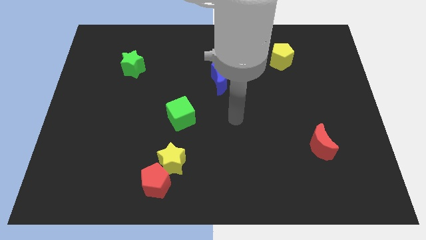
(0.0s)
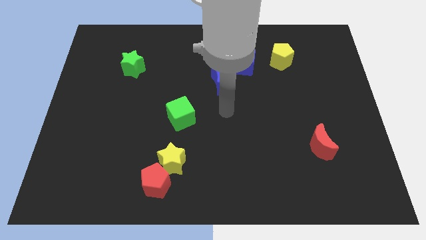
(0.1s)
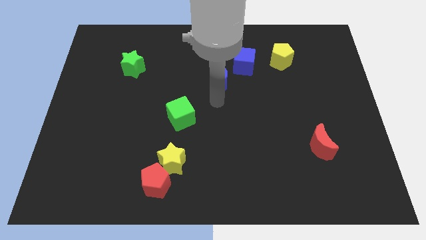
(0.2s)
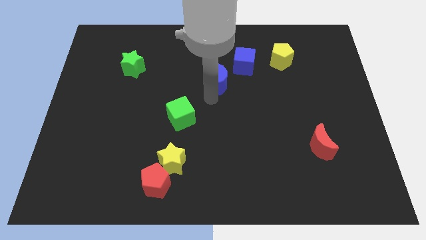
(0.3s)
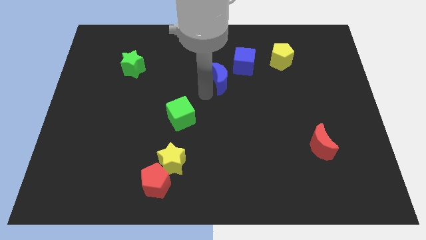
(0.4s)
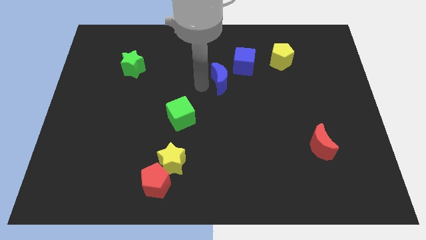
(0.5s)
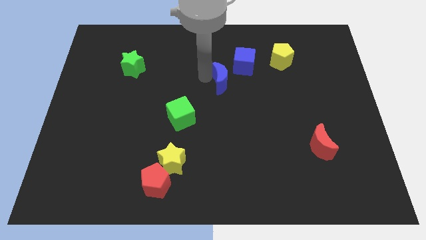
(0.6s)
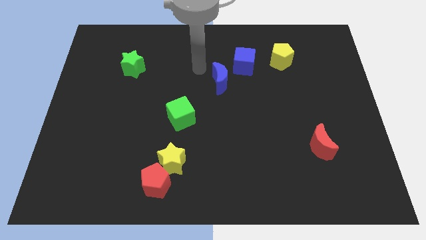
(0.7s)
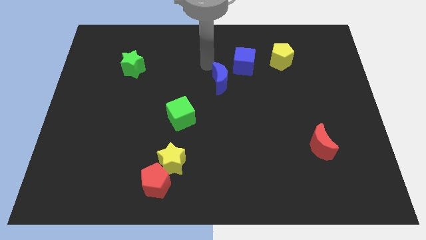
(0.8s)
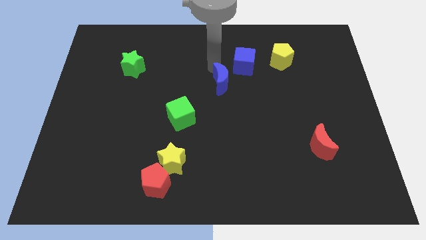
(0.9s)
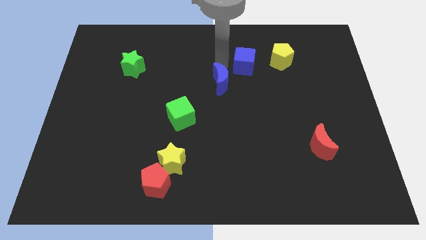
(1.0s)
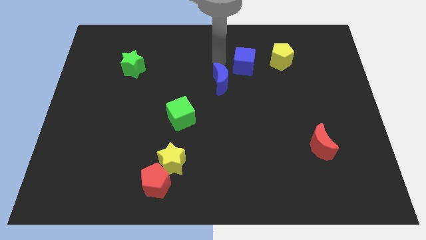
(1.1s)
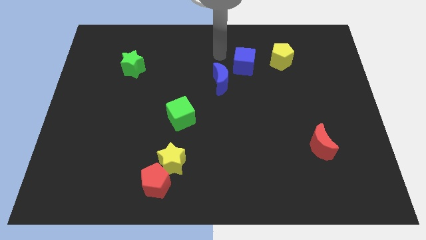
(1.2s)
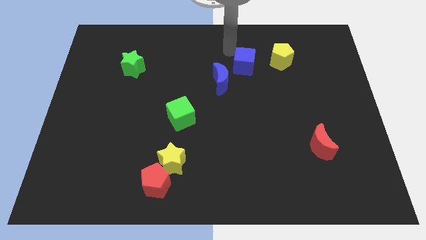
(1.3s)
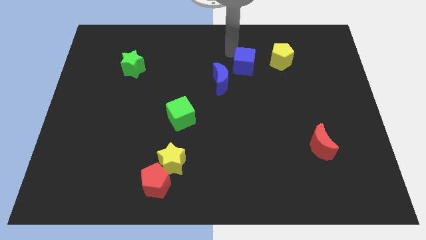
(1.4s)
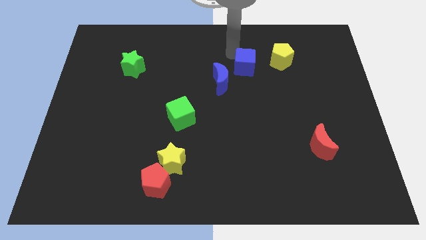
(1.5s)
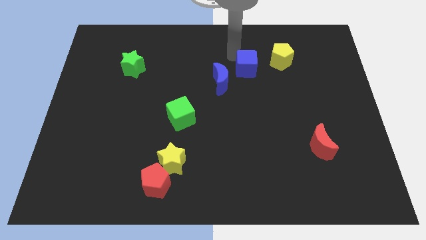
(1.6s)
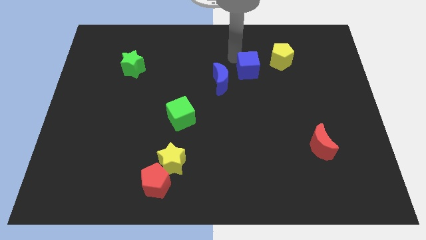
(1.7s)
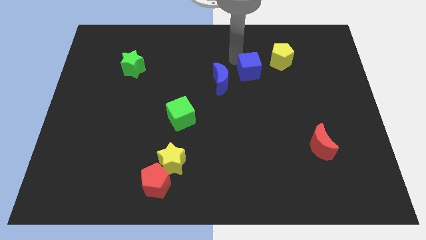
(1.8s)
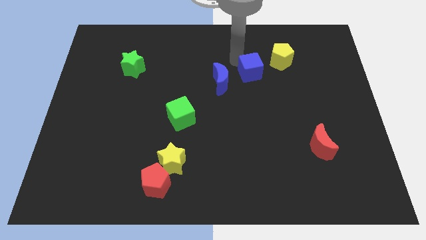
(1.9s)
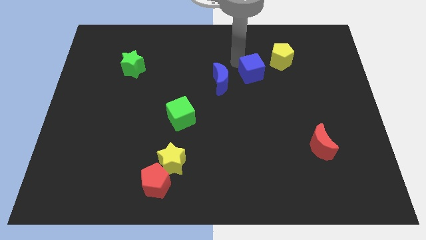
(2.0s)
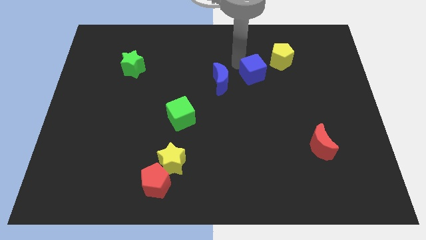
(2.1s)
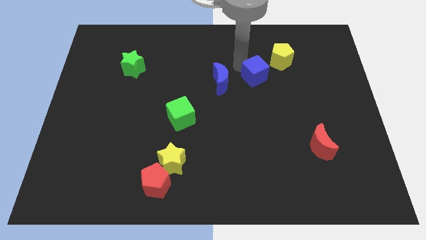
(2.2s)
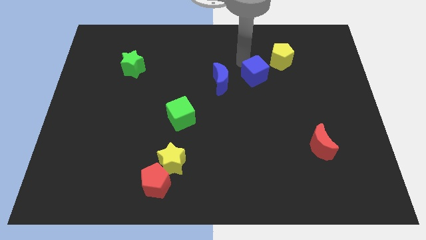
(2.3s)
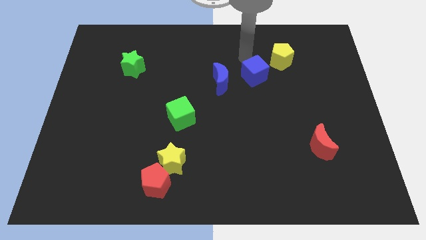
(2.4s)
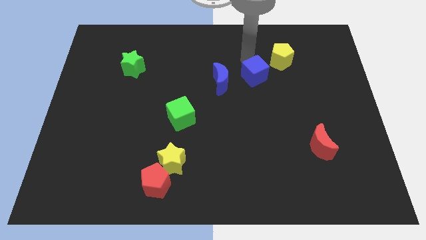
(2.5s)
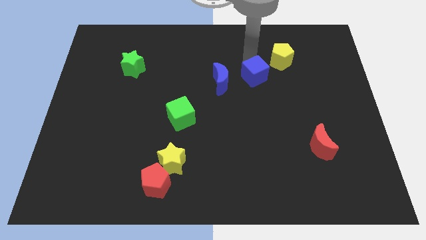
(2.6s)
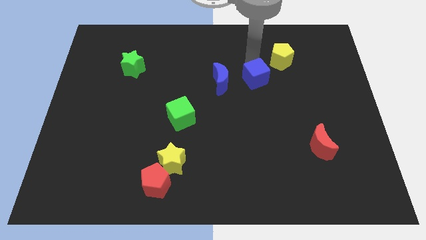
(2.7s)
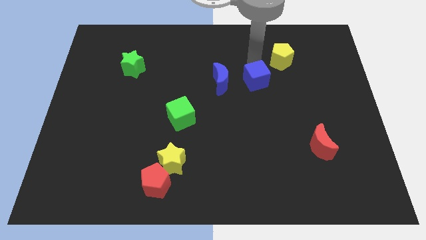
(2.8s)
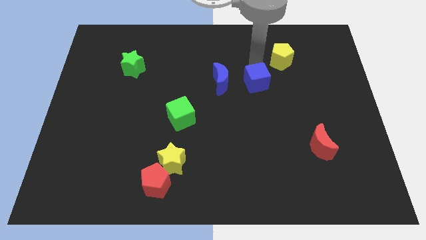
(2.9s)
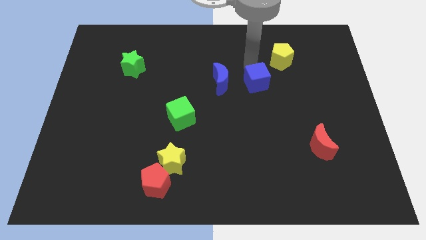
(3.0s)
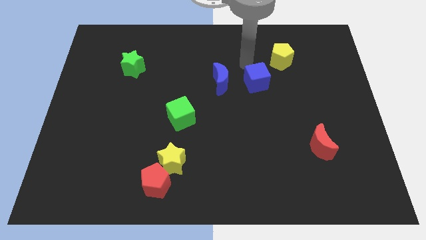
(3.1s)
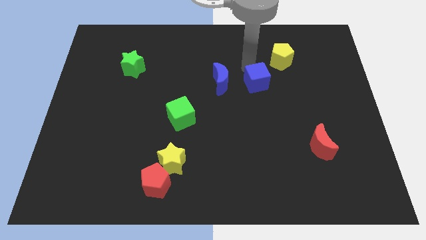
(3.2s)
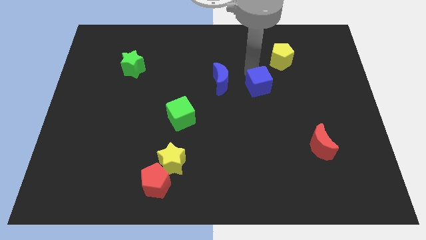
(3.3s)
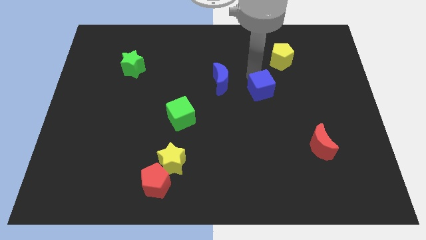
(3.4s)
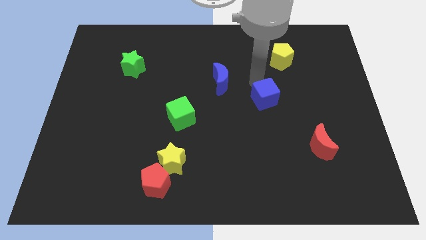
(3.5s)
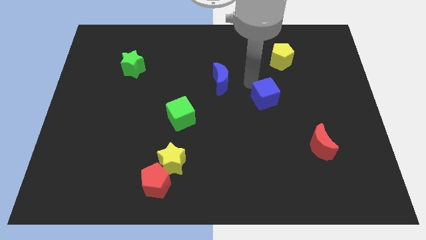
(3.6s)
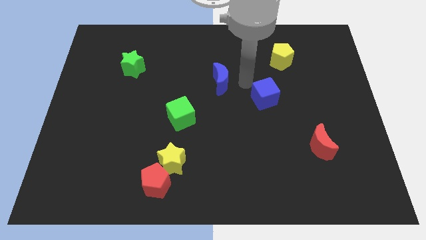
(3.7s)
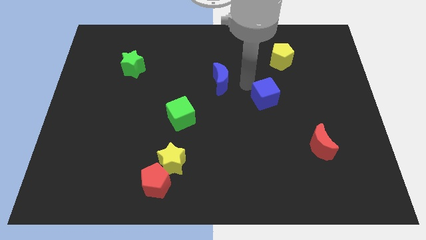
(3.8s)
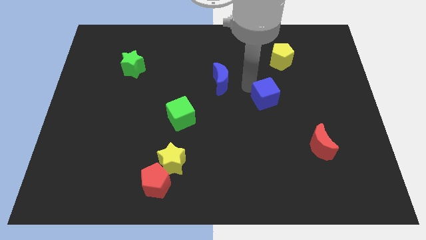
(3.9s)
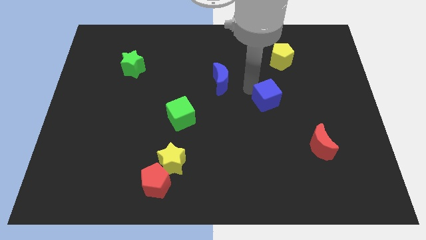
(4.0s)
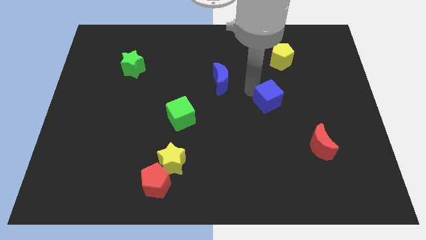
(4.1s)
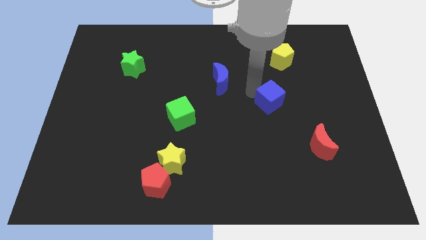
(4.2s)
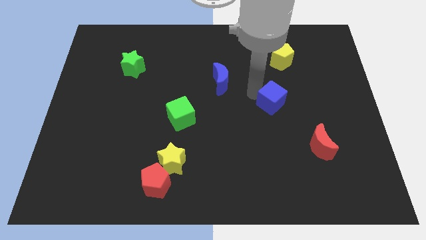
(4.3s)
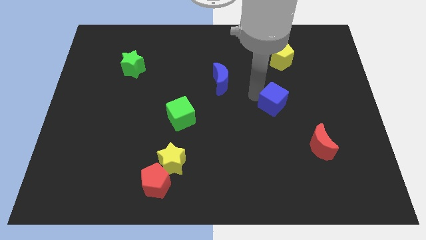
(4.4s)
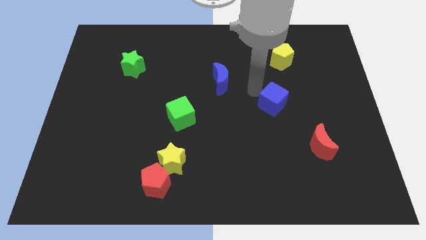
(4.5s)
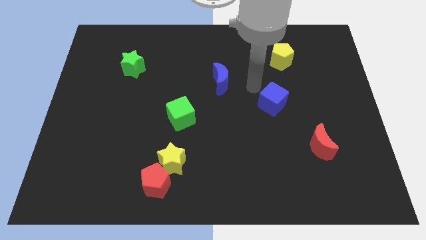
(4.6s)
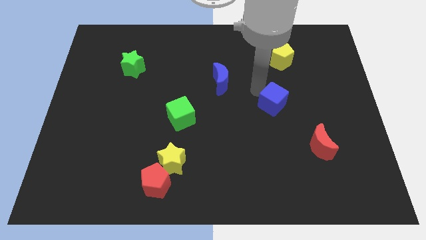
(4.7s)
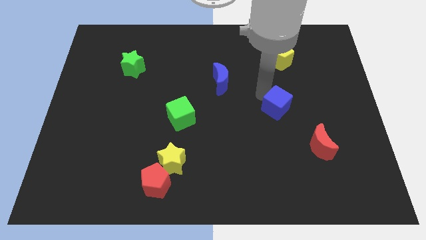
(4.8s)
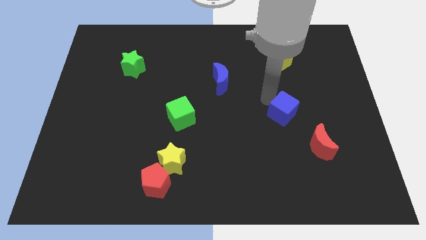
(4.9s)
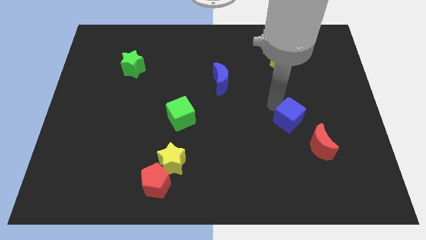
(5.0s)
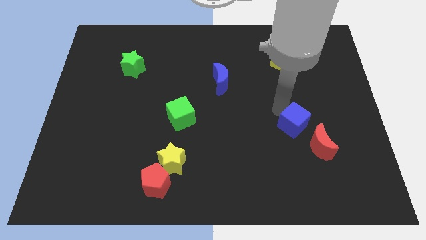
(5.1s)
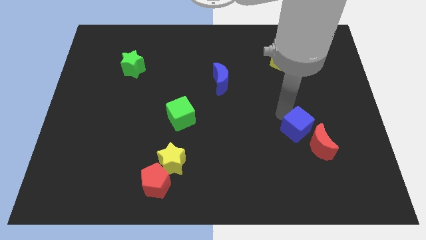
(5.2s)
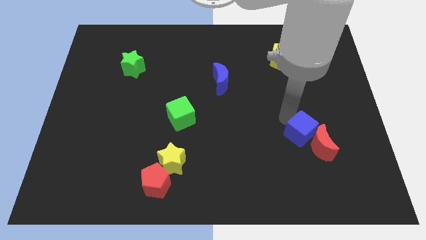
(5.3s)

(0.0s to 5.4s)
push the blue cube next to the red moon

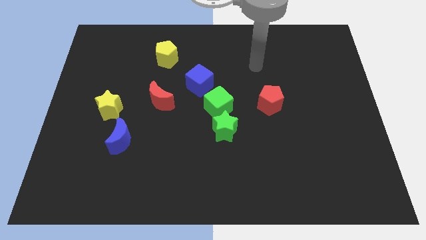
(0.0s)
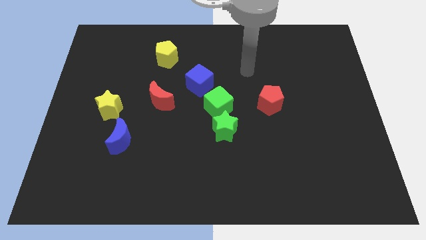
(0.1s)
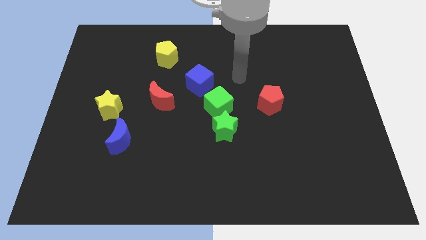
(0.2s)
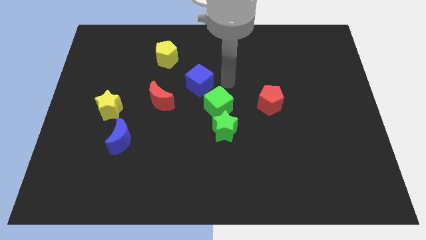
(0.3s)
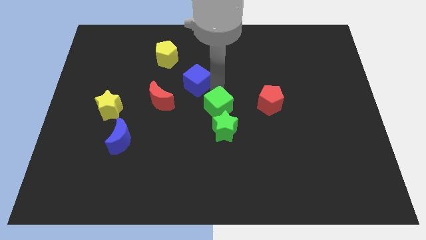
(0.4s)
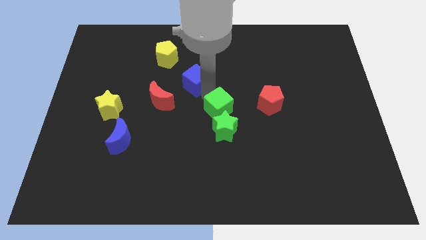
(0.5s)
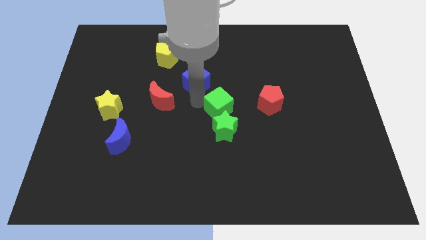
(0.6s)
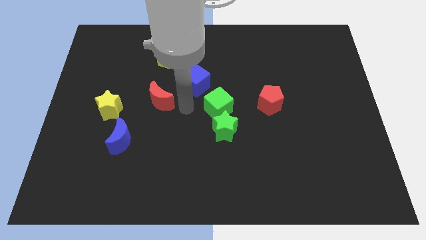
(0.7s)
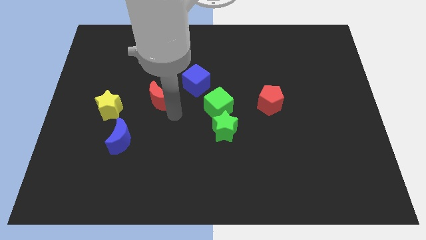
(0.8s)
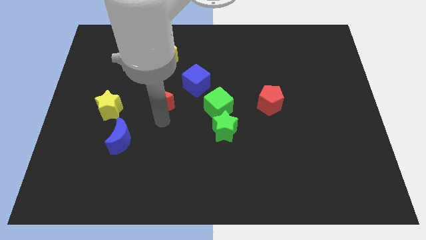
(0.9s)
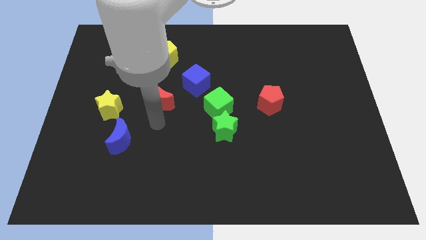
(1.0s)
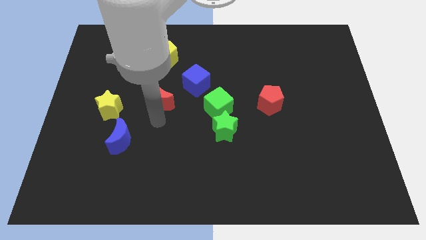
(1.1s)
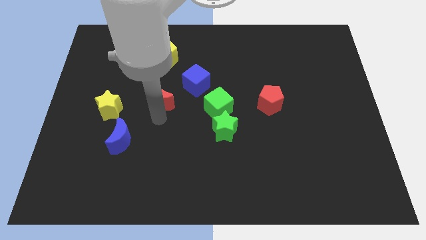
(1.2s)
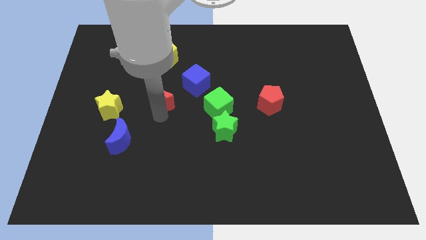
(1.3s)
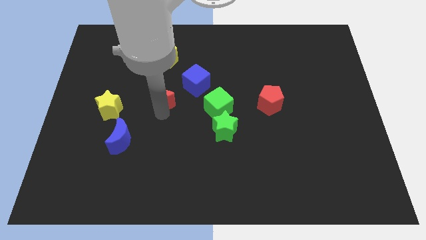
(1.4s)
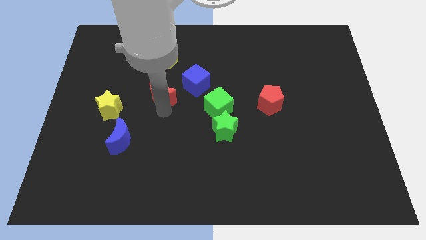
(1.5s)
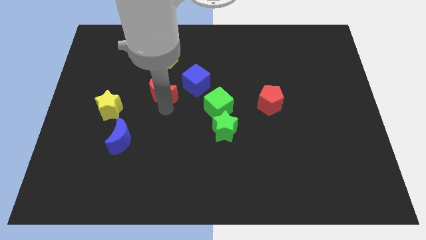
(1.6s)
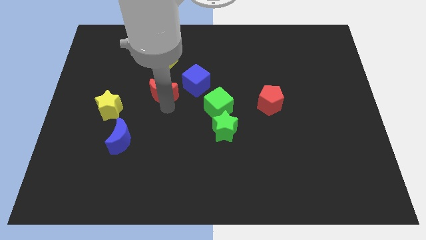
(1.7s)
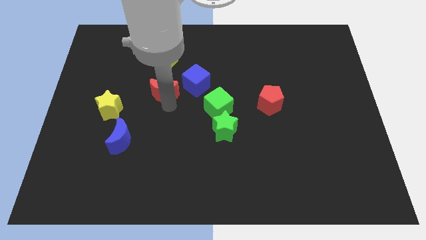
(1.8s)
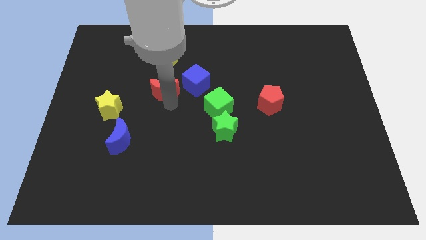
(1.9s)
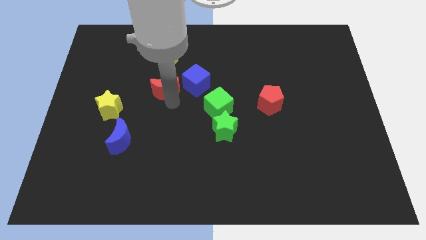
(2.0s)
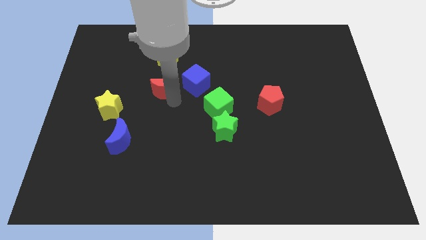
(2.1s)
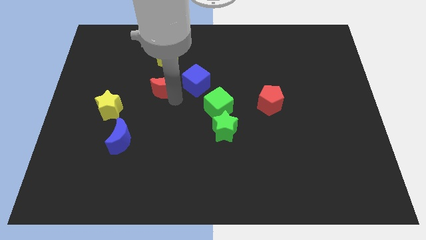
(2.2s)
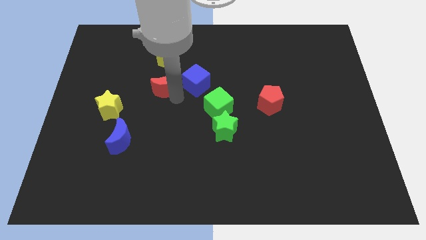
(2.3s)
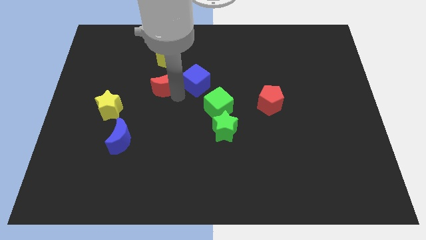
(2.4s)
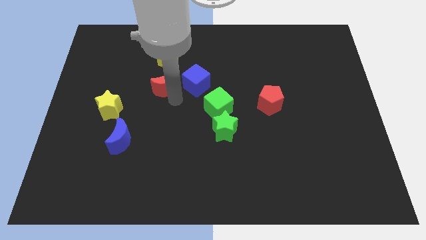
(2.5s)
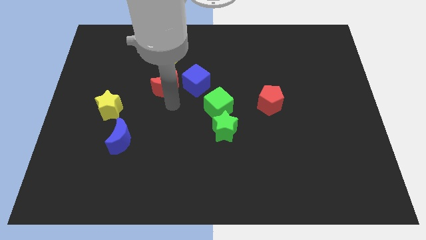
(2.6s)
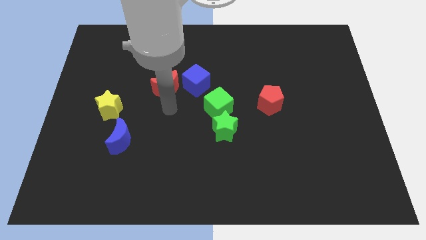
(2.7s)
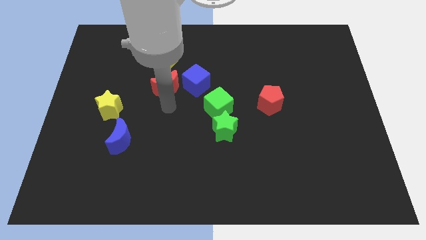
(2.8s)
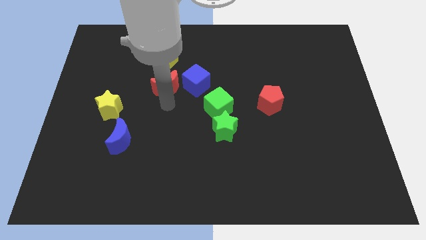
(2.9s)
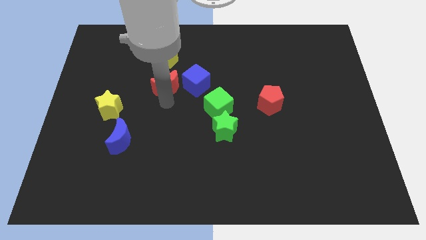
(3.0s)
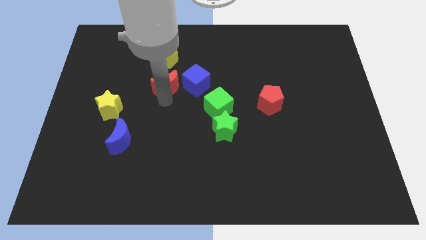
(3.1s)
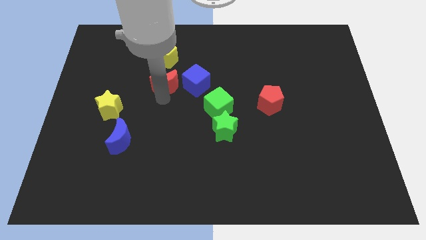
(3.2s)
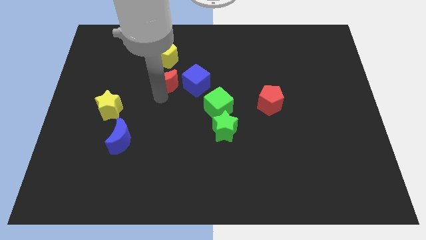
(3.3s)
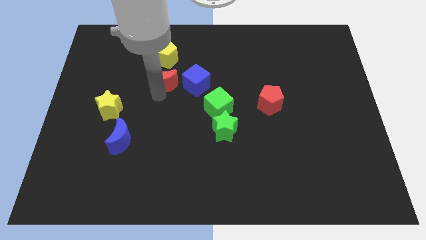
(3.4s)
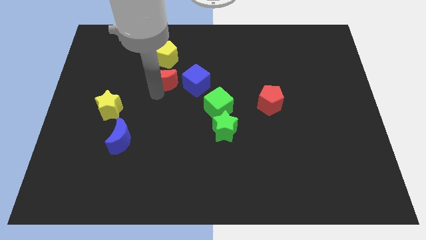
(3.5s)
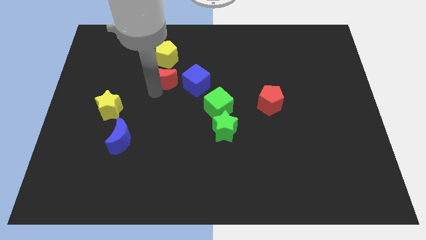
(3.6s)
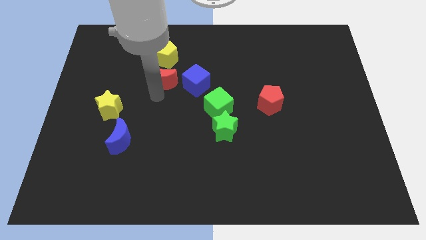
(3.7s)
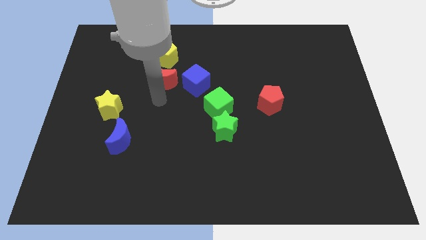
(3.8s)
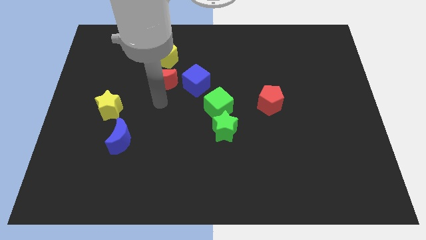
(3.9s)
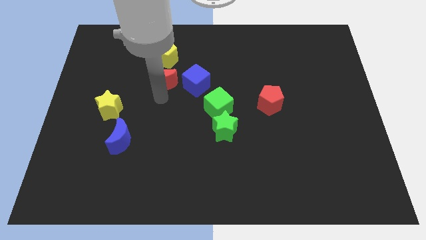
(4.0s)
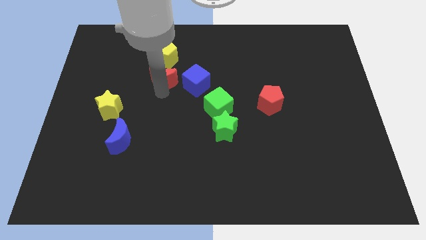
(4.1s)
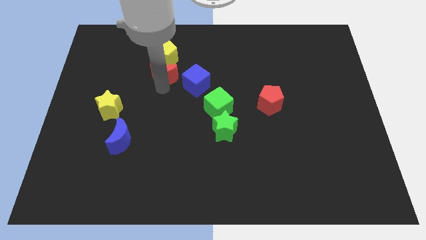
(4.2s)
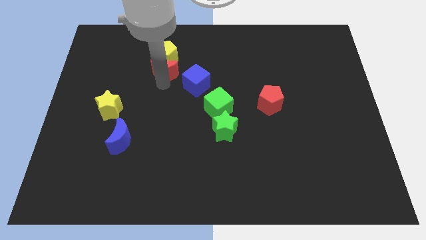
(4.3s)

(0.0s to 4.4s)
put the red moon towards the yellow pentagon
